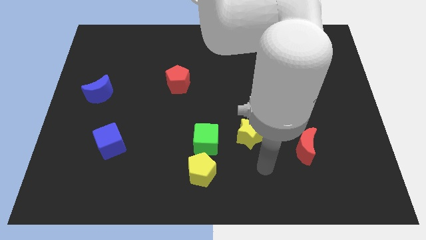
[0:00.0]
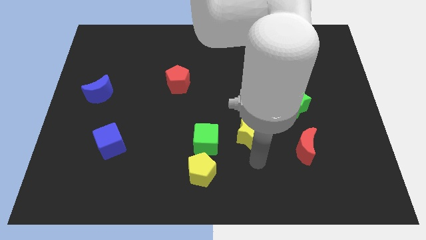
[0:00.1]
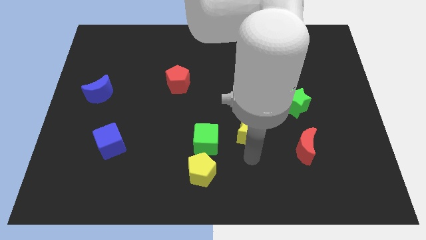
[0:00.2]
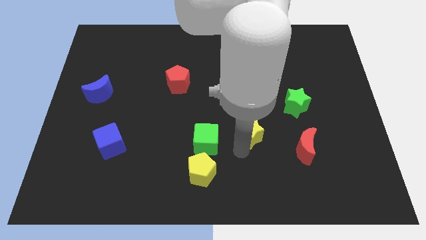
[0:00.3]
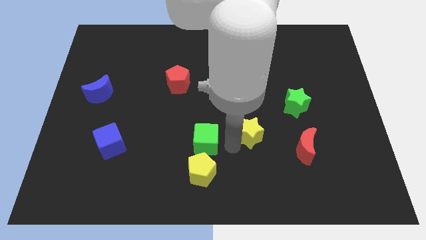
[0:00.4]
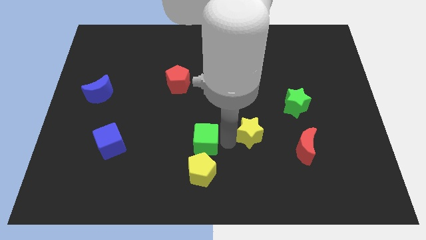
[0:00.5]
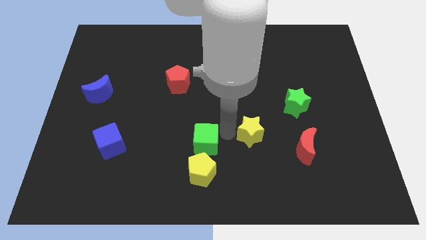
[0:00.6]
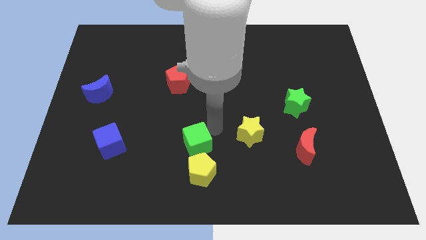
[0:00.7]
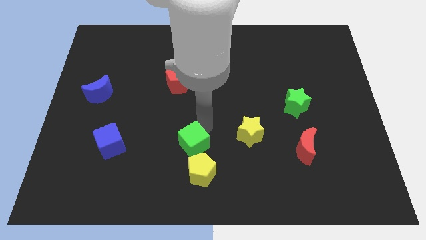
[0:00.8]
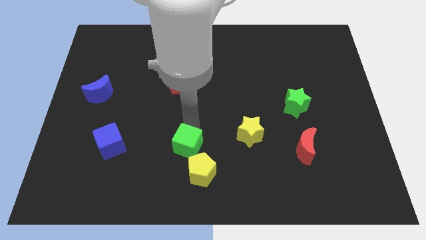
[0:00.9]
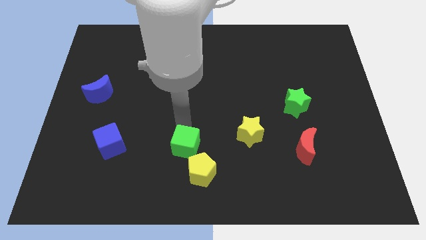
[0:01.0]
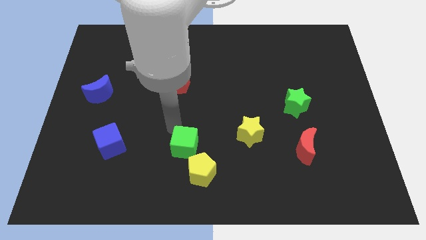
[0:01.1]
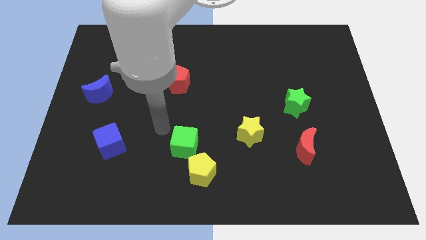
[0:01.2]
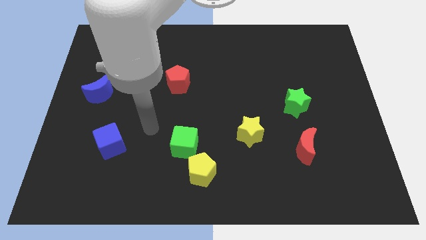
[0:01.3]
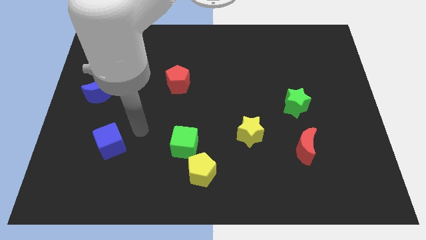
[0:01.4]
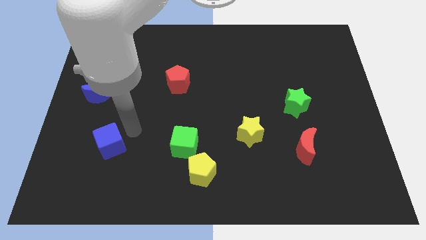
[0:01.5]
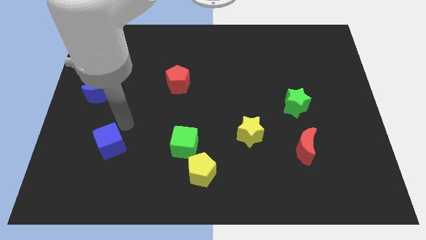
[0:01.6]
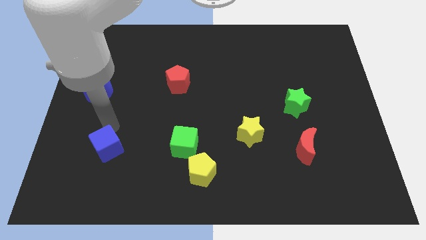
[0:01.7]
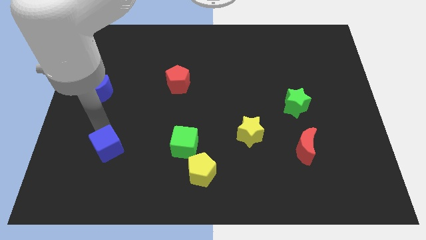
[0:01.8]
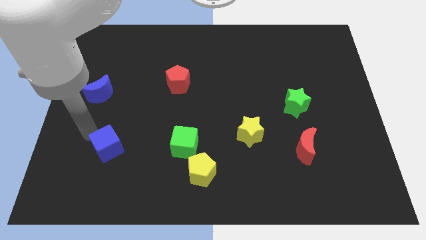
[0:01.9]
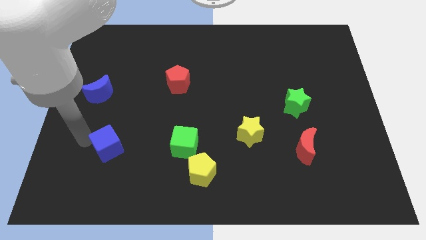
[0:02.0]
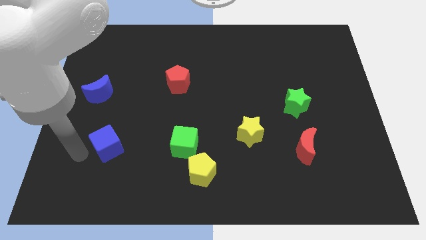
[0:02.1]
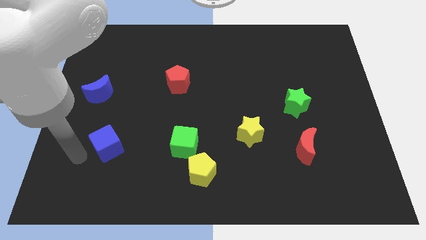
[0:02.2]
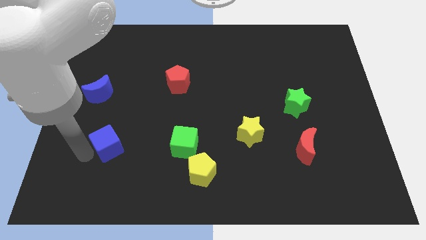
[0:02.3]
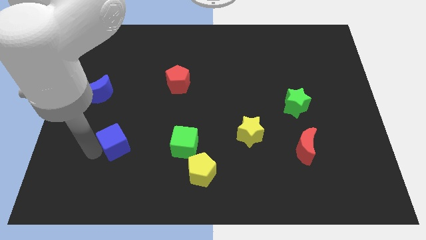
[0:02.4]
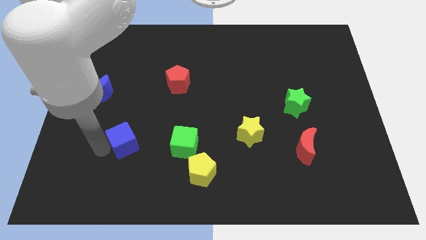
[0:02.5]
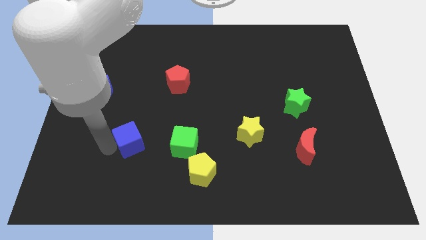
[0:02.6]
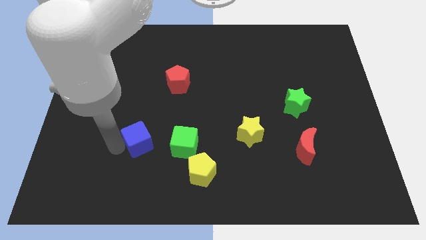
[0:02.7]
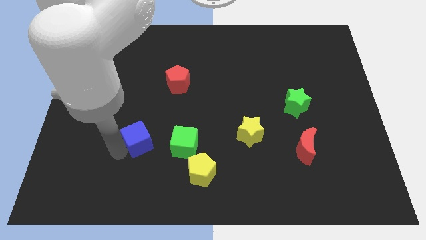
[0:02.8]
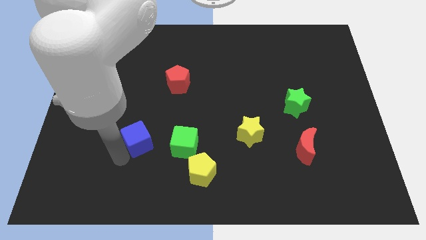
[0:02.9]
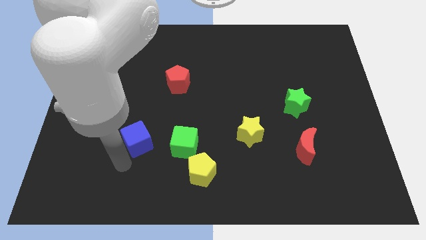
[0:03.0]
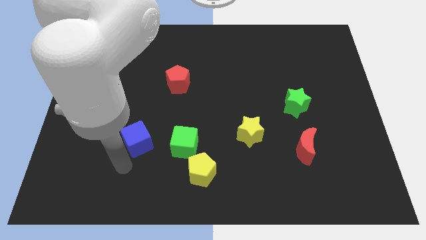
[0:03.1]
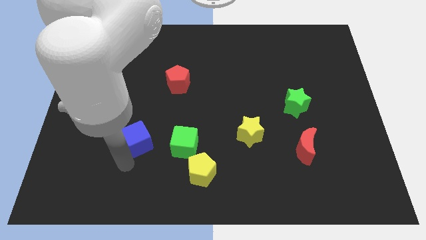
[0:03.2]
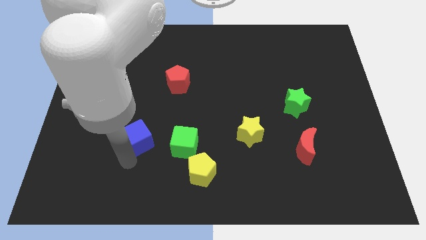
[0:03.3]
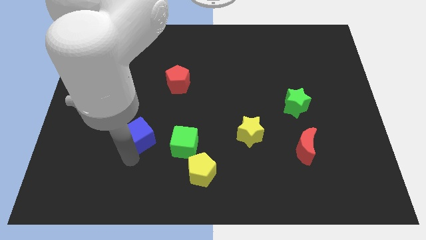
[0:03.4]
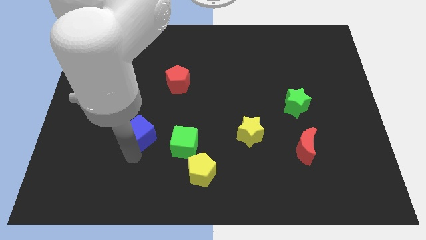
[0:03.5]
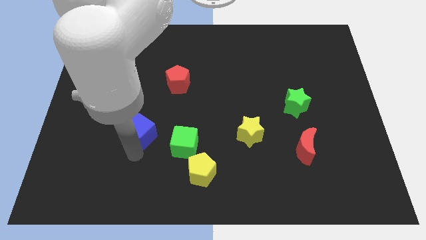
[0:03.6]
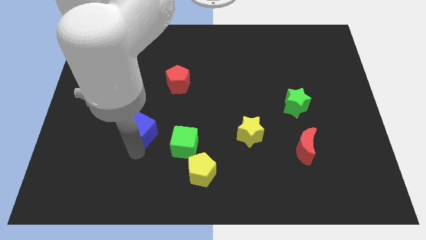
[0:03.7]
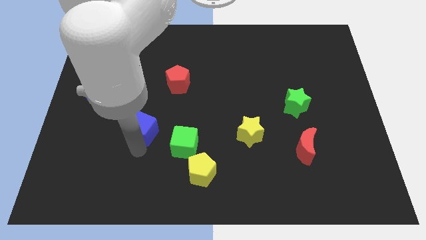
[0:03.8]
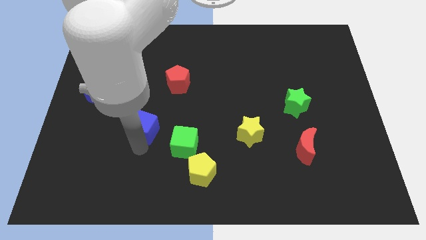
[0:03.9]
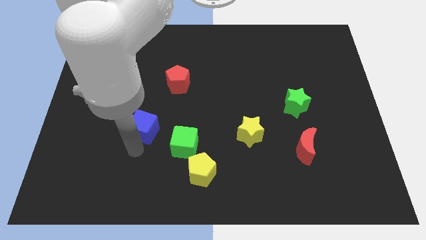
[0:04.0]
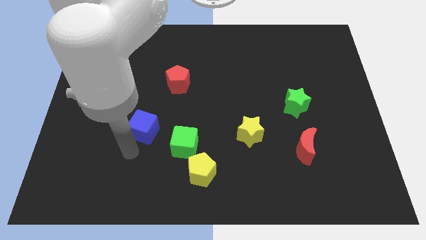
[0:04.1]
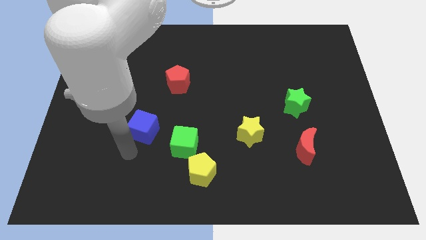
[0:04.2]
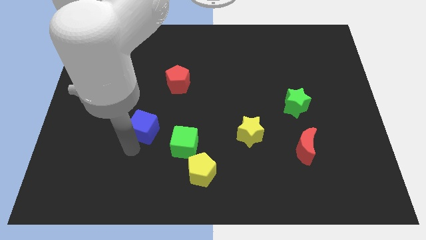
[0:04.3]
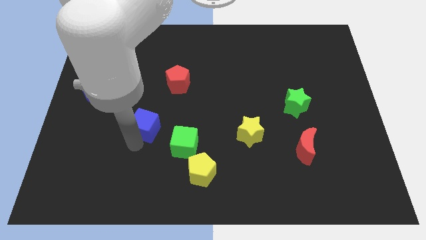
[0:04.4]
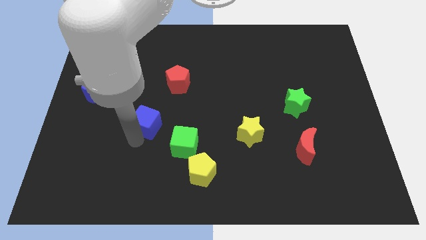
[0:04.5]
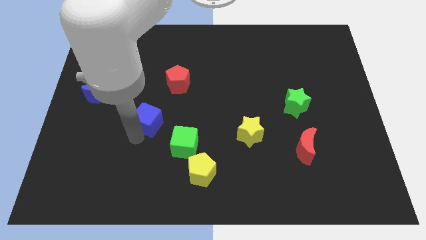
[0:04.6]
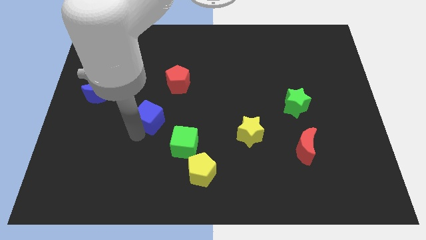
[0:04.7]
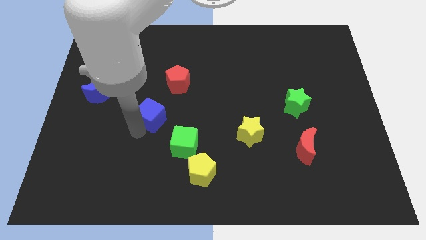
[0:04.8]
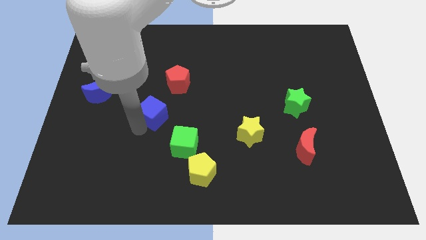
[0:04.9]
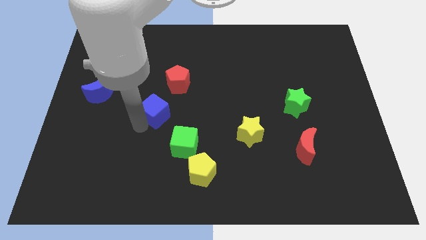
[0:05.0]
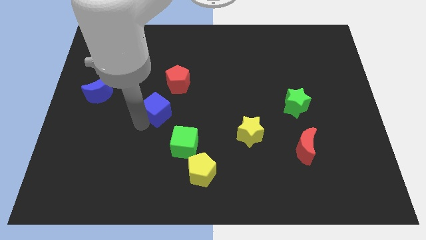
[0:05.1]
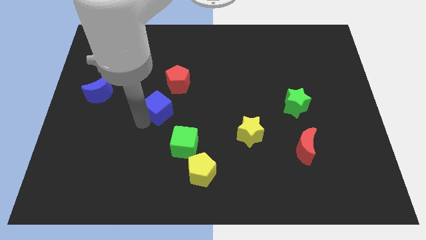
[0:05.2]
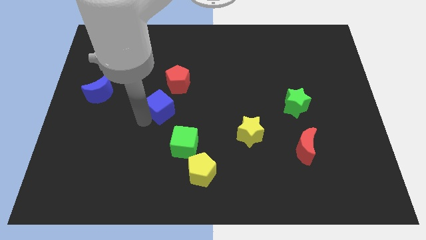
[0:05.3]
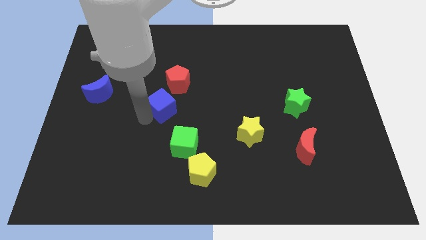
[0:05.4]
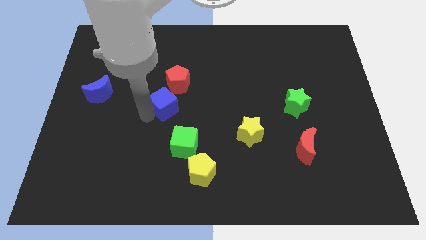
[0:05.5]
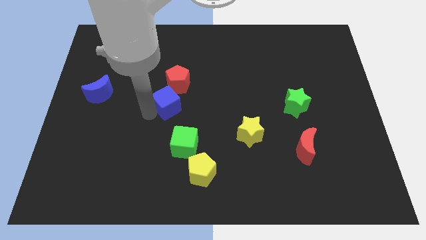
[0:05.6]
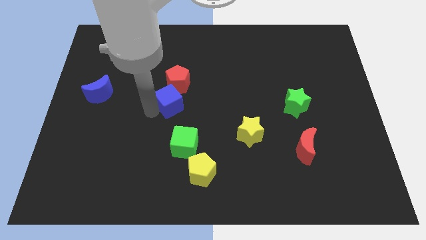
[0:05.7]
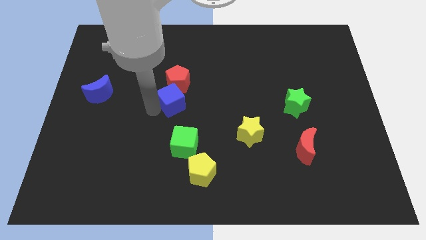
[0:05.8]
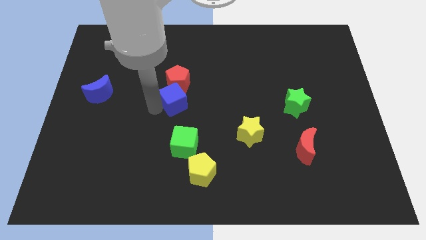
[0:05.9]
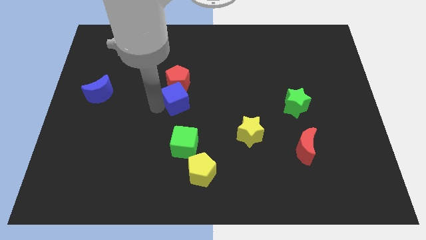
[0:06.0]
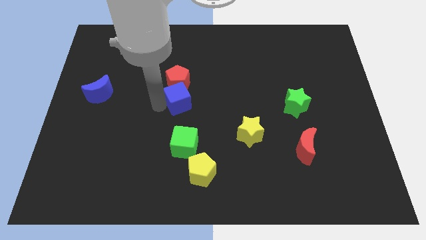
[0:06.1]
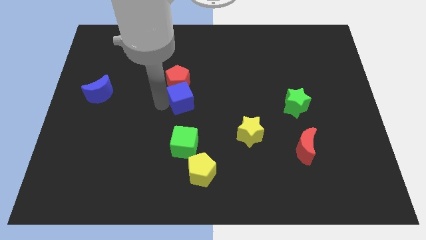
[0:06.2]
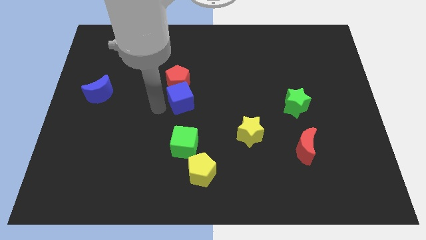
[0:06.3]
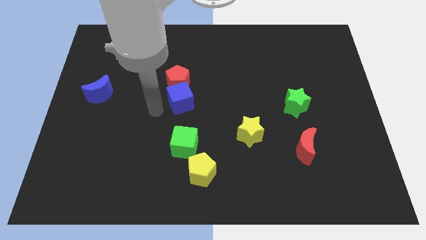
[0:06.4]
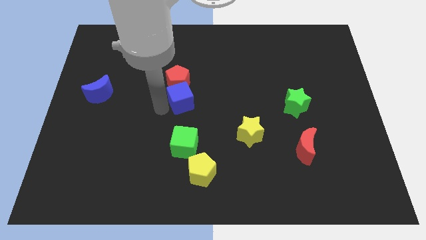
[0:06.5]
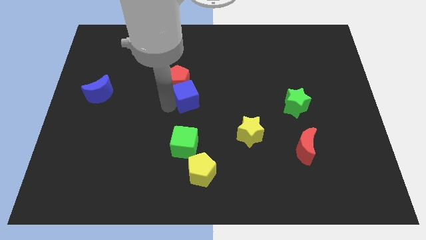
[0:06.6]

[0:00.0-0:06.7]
push the blue cube diagonally up and right

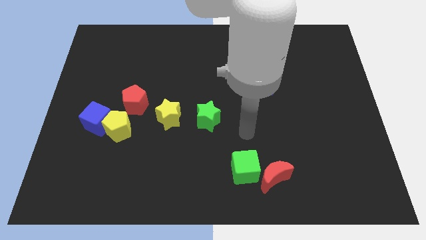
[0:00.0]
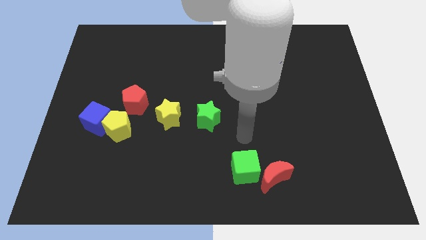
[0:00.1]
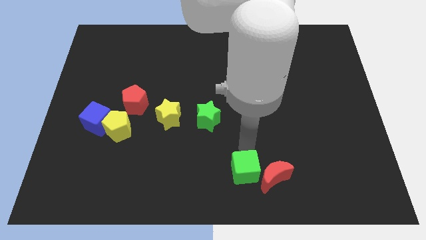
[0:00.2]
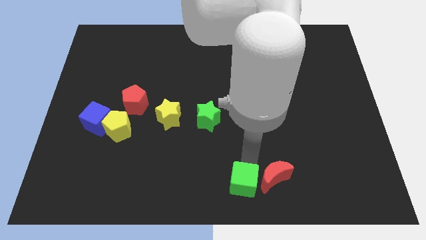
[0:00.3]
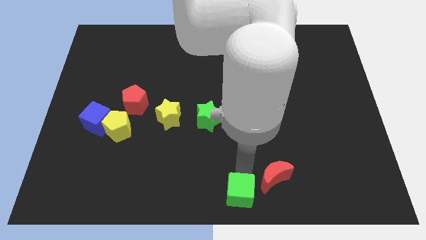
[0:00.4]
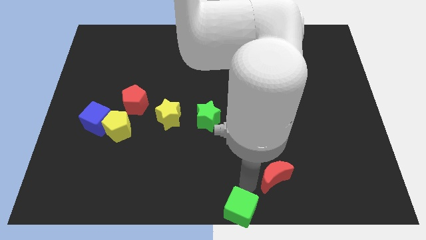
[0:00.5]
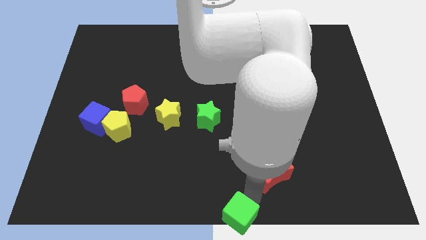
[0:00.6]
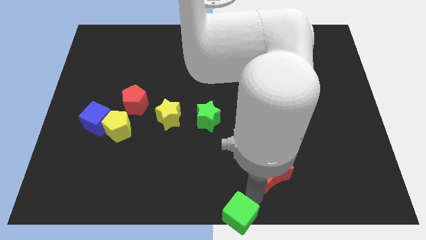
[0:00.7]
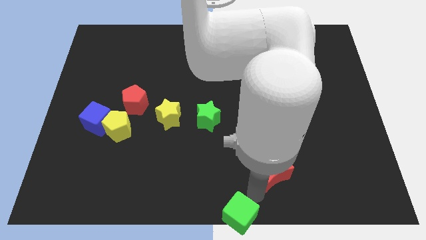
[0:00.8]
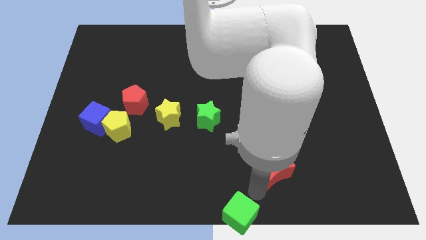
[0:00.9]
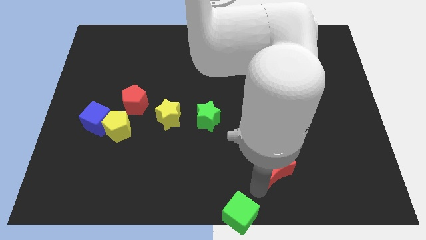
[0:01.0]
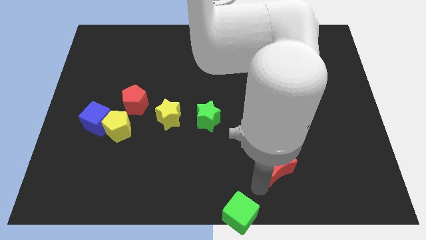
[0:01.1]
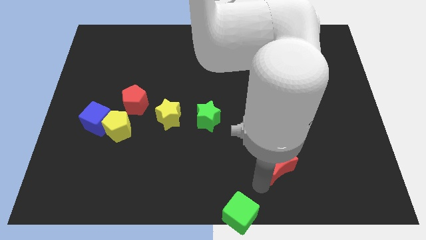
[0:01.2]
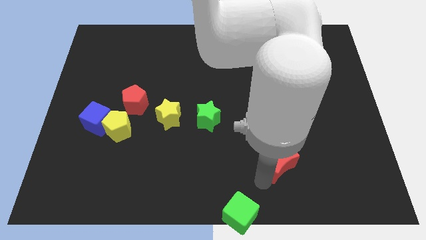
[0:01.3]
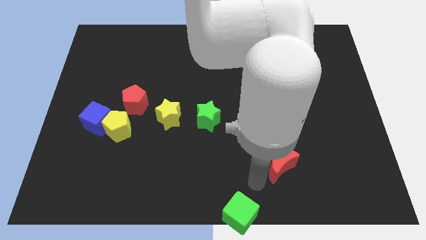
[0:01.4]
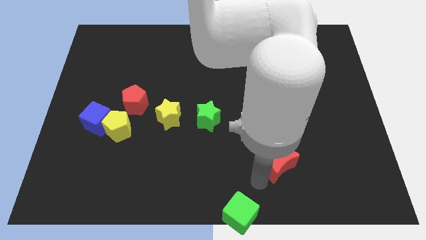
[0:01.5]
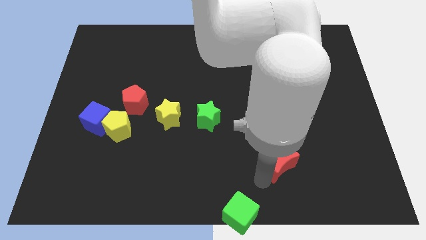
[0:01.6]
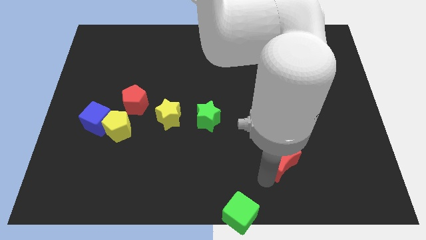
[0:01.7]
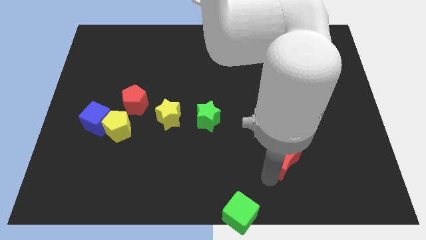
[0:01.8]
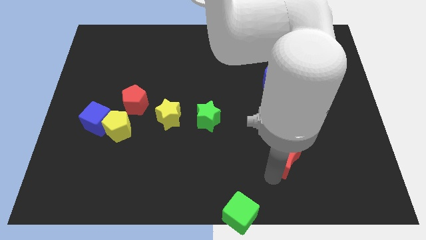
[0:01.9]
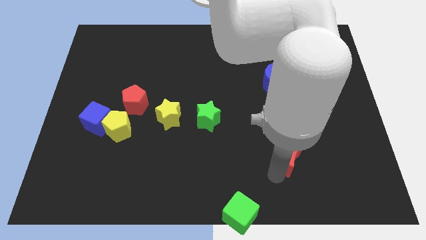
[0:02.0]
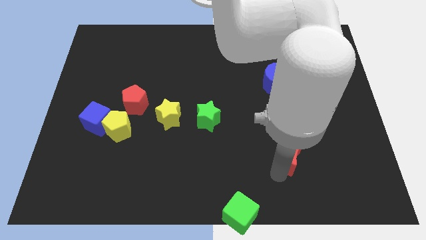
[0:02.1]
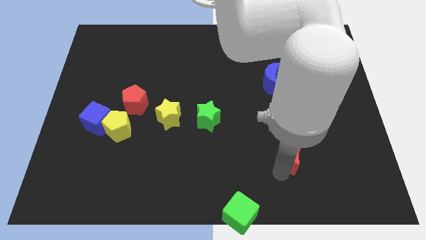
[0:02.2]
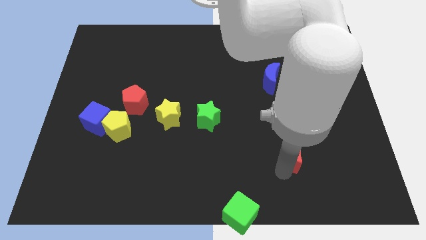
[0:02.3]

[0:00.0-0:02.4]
slightly move the red moon up and right diagonally
